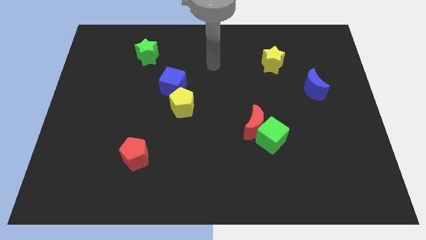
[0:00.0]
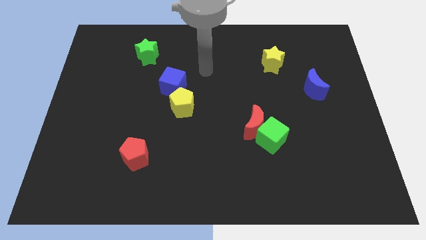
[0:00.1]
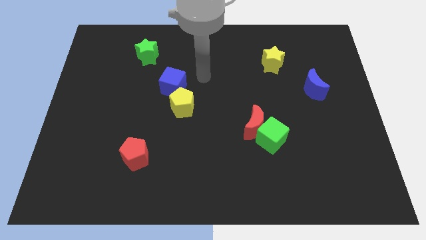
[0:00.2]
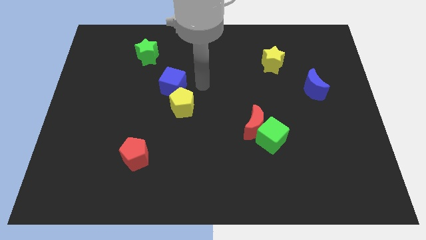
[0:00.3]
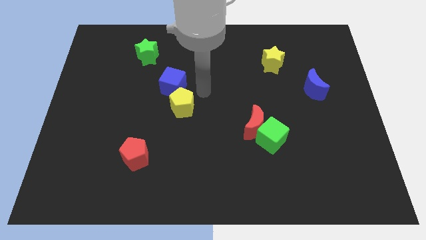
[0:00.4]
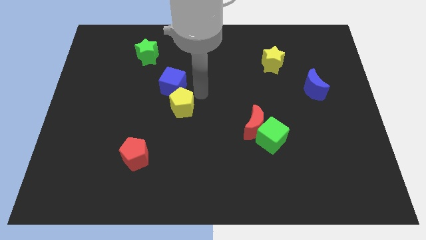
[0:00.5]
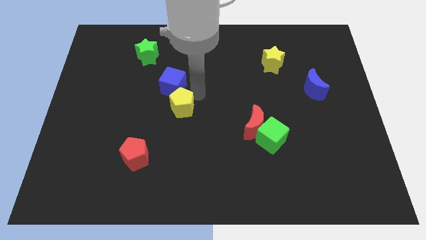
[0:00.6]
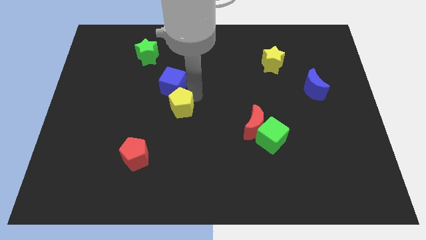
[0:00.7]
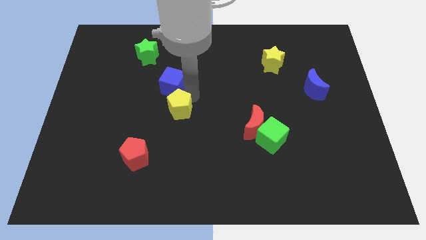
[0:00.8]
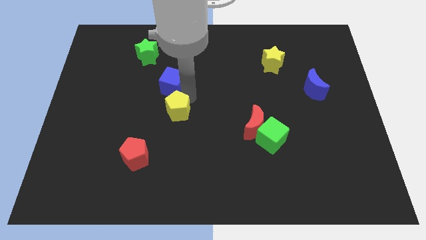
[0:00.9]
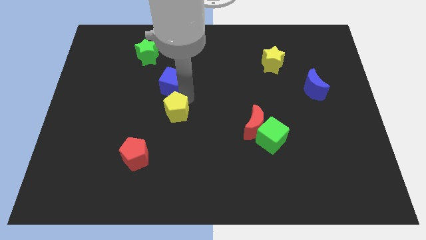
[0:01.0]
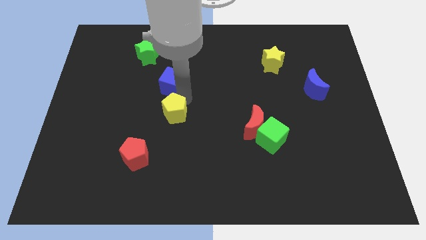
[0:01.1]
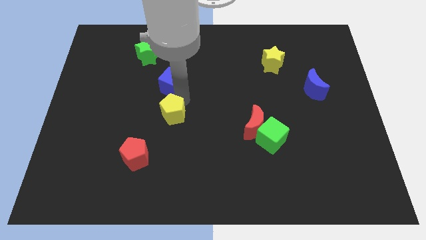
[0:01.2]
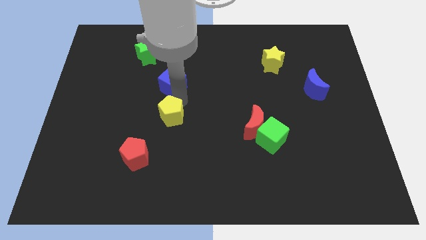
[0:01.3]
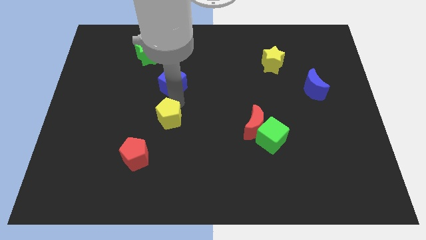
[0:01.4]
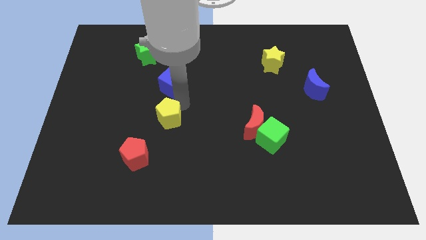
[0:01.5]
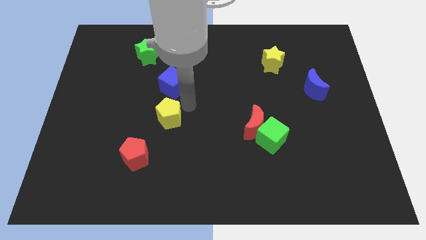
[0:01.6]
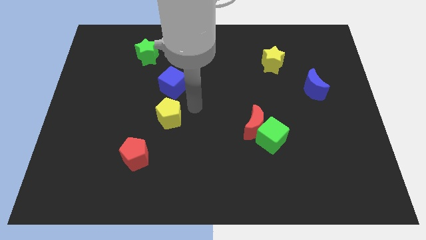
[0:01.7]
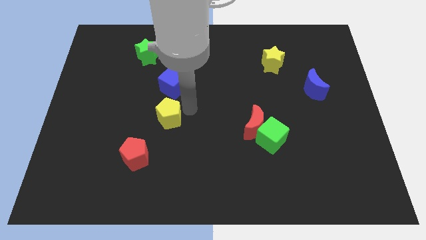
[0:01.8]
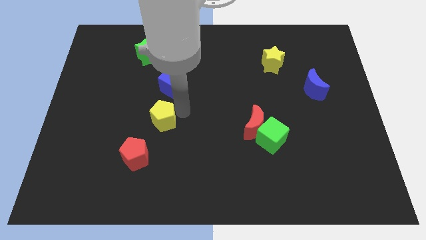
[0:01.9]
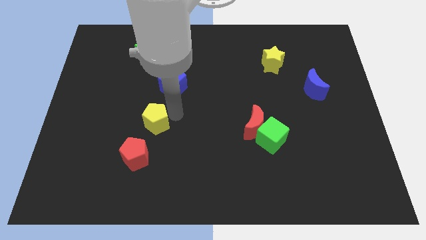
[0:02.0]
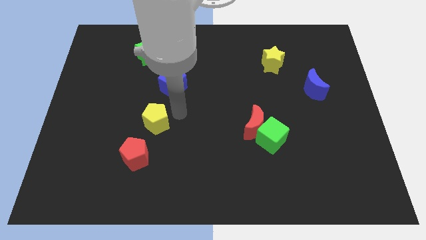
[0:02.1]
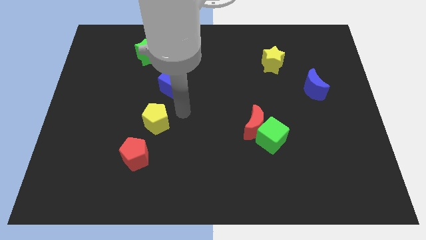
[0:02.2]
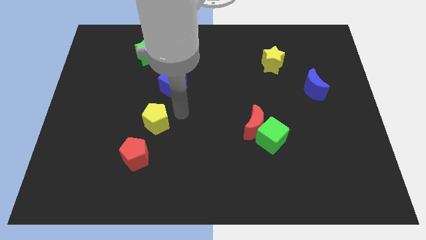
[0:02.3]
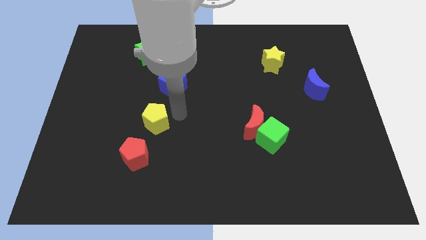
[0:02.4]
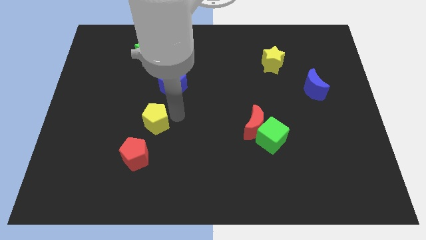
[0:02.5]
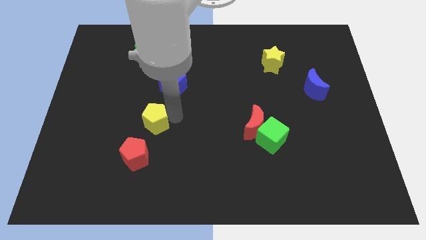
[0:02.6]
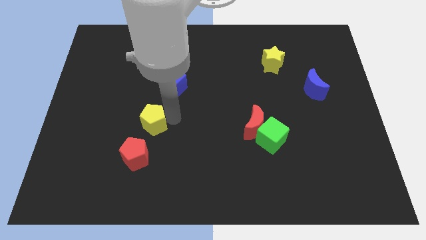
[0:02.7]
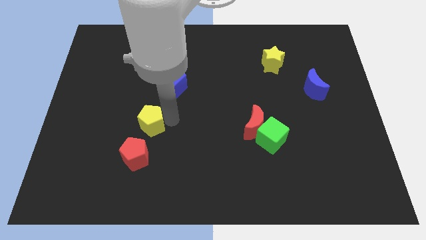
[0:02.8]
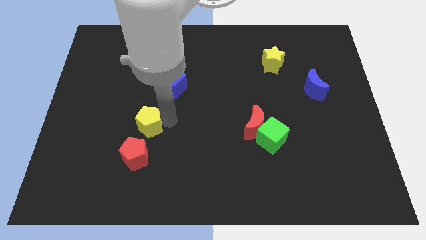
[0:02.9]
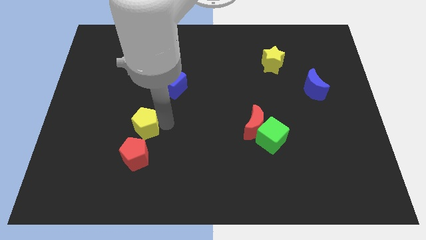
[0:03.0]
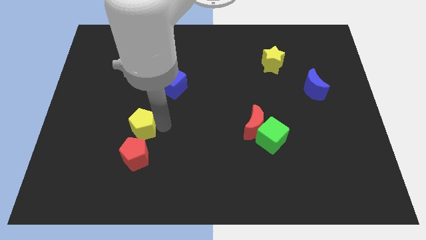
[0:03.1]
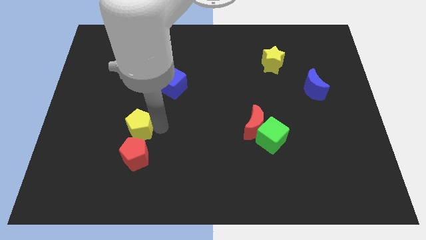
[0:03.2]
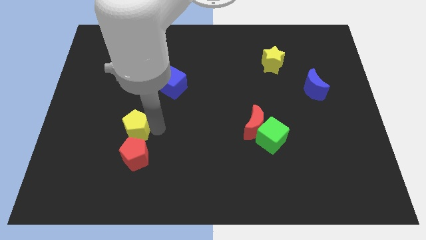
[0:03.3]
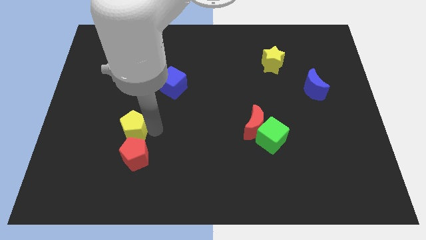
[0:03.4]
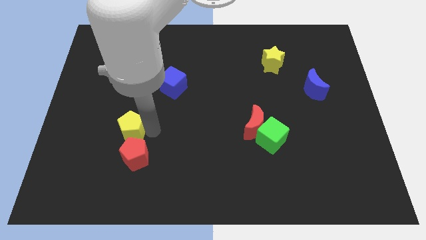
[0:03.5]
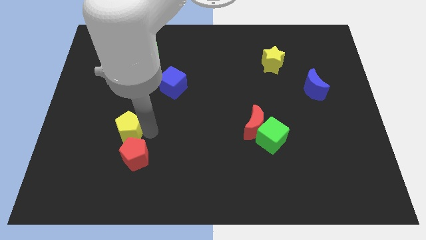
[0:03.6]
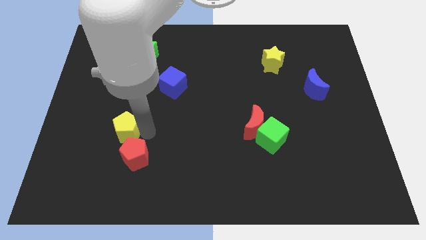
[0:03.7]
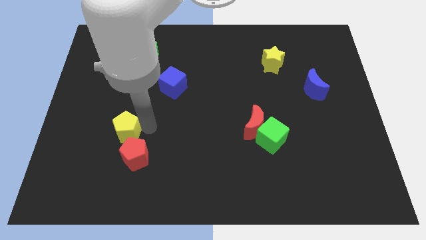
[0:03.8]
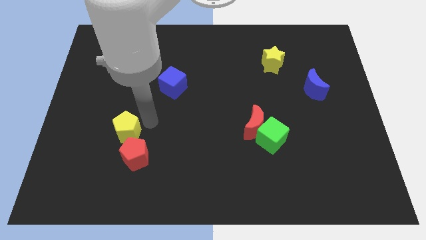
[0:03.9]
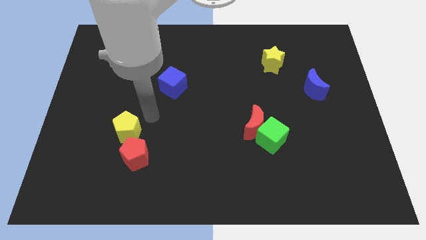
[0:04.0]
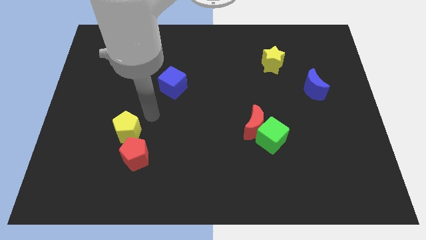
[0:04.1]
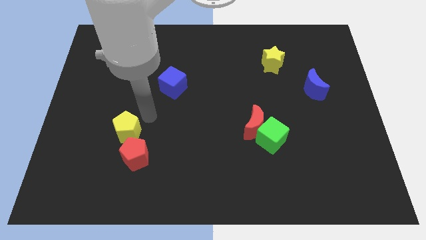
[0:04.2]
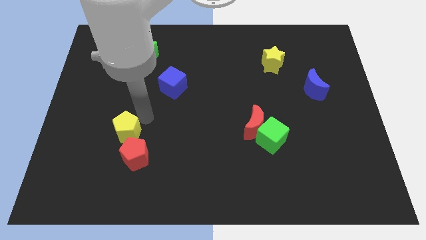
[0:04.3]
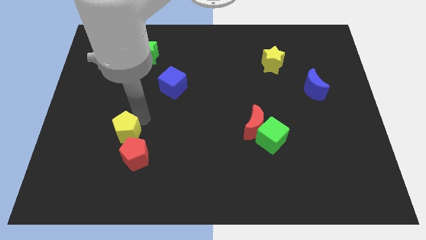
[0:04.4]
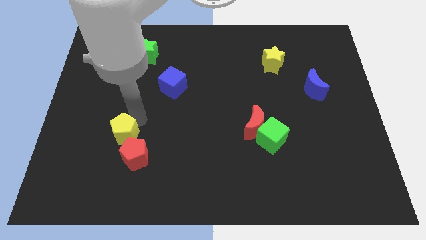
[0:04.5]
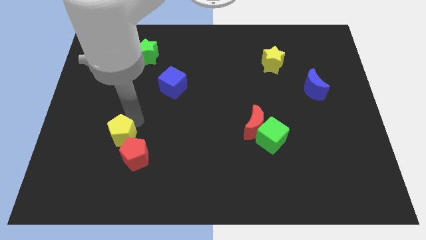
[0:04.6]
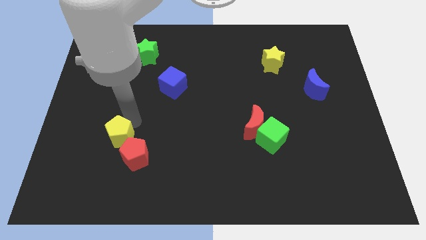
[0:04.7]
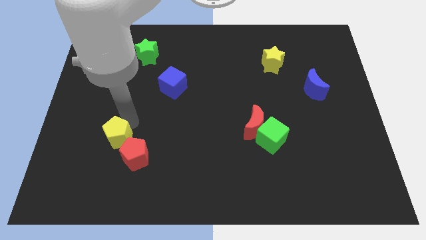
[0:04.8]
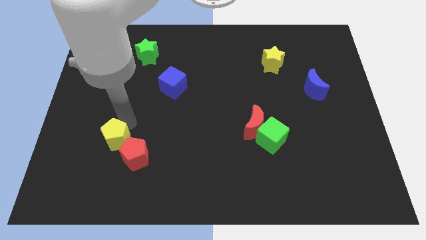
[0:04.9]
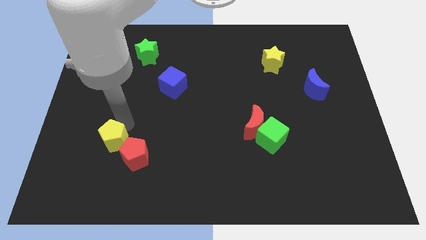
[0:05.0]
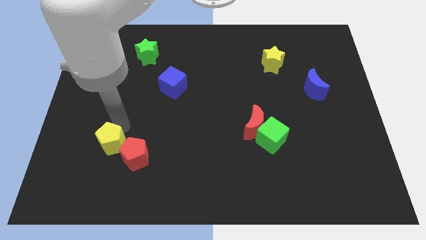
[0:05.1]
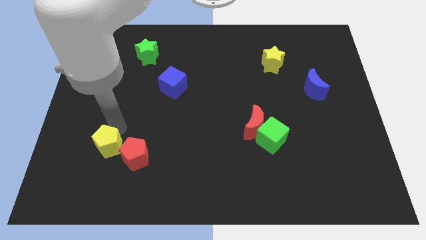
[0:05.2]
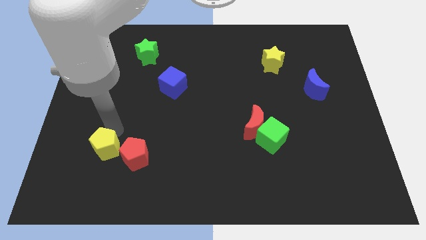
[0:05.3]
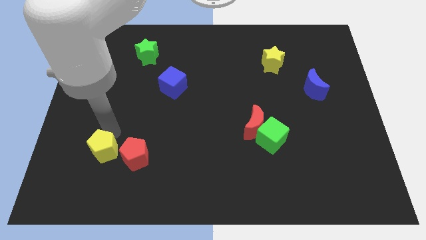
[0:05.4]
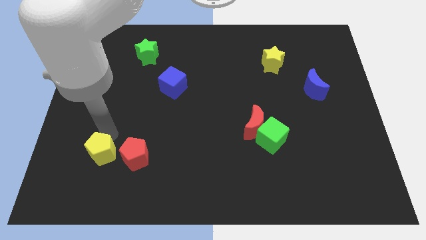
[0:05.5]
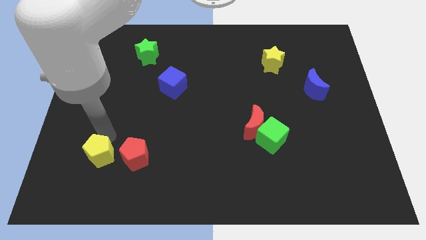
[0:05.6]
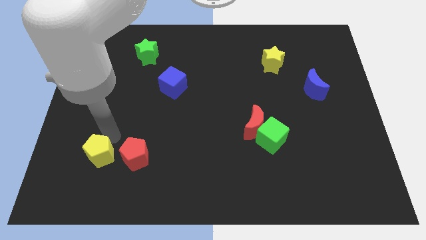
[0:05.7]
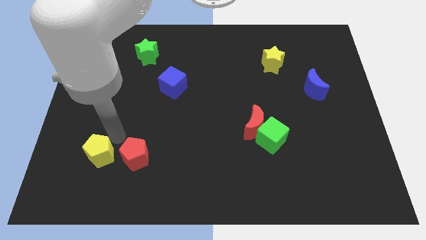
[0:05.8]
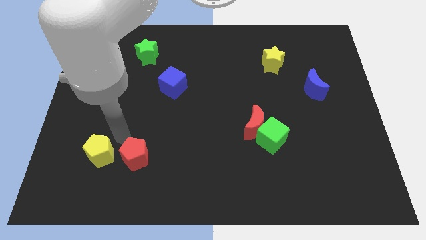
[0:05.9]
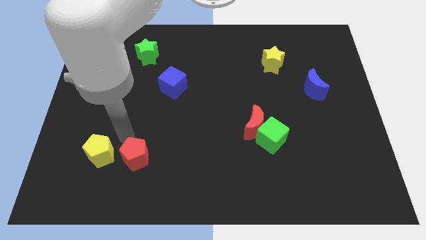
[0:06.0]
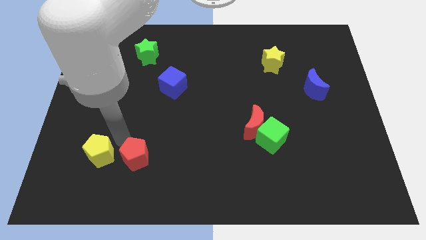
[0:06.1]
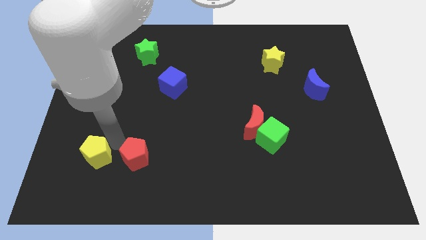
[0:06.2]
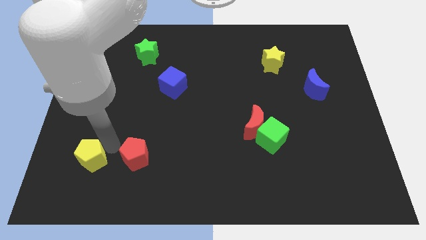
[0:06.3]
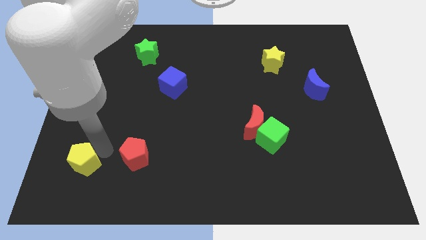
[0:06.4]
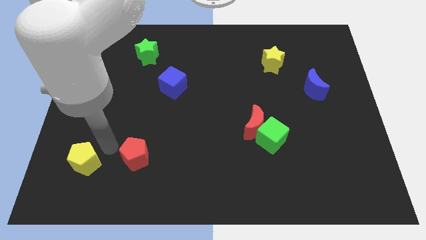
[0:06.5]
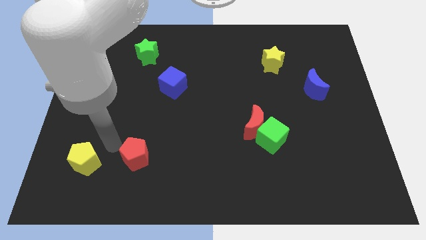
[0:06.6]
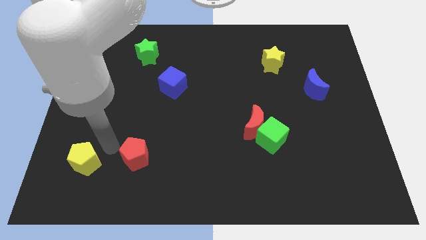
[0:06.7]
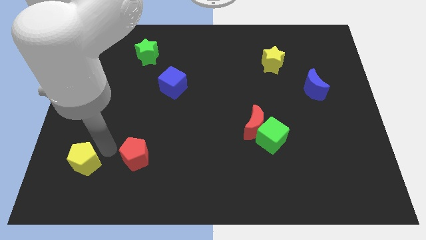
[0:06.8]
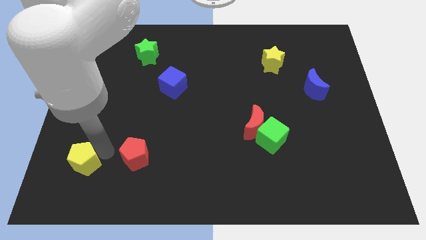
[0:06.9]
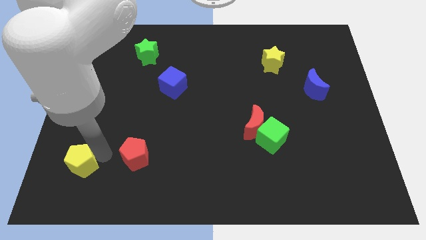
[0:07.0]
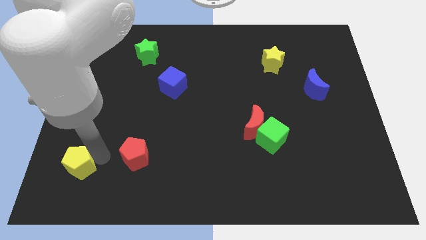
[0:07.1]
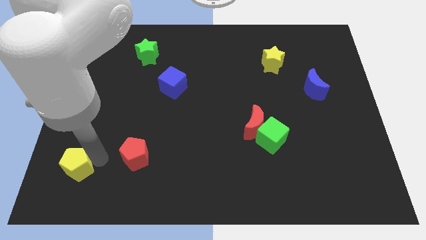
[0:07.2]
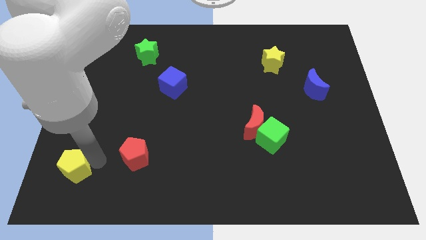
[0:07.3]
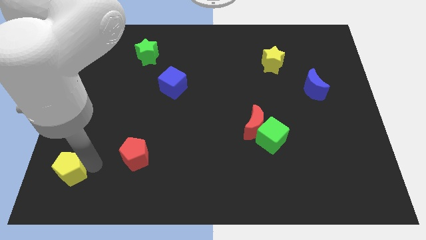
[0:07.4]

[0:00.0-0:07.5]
push the yellow pentagon to the lower left corner
